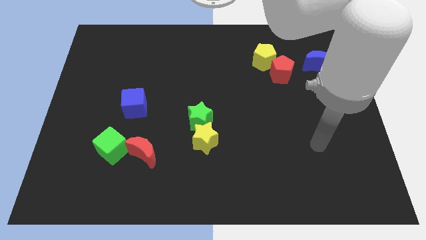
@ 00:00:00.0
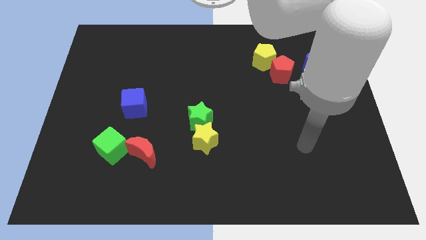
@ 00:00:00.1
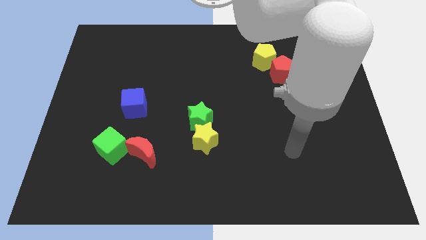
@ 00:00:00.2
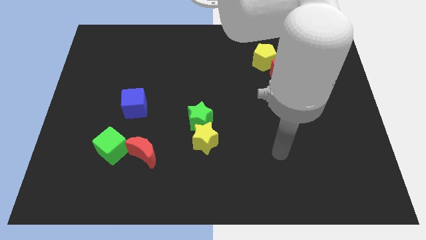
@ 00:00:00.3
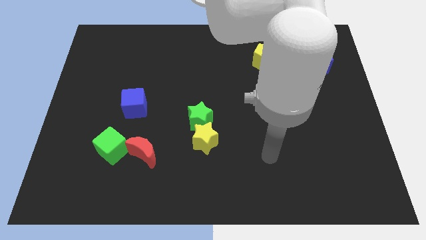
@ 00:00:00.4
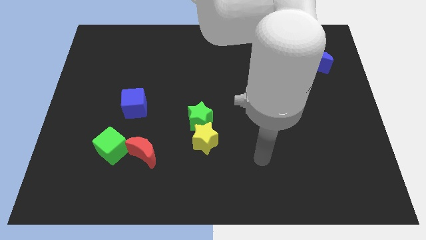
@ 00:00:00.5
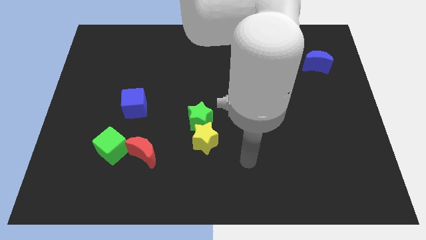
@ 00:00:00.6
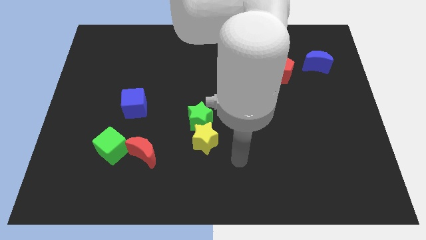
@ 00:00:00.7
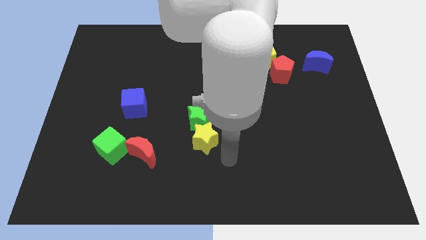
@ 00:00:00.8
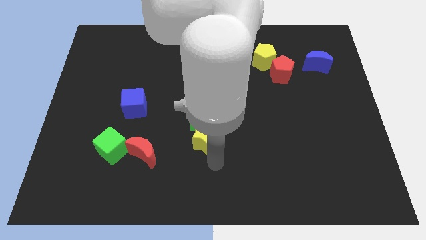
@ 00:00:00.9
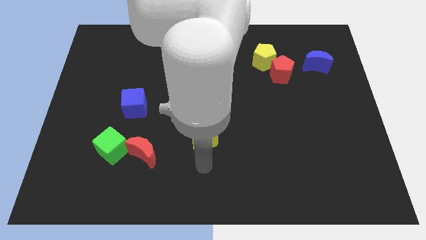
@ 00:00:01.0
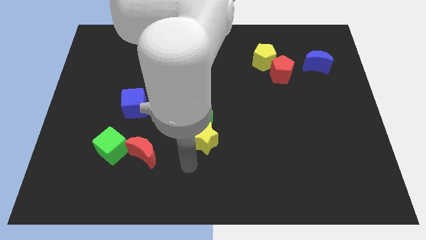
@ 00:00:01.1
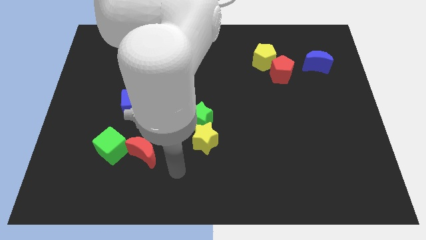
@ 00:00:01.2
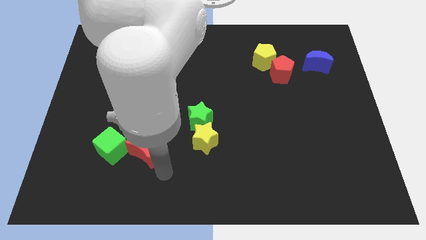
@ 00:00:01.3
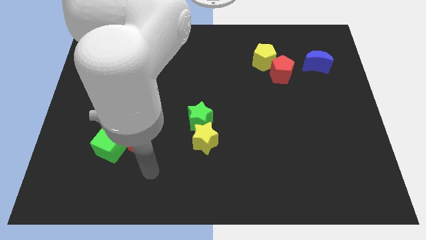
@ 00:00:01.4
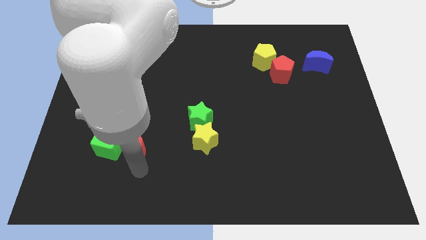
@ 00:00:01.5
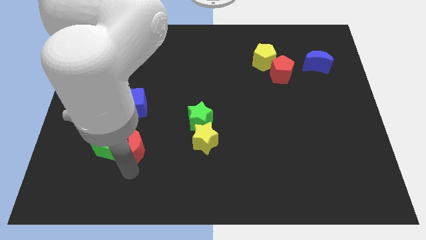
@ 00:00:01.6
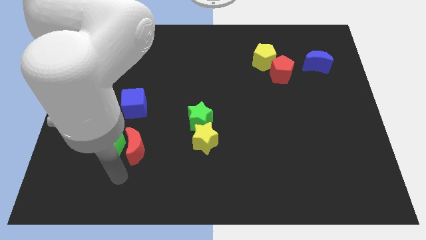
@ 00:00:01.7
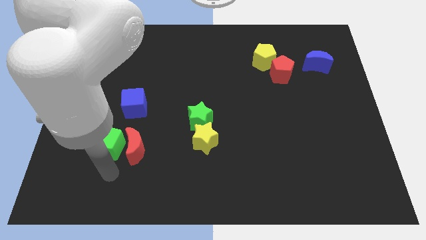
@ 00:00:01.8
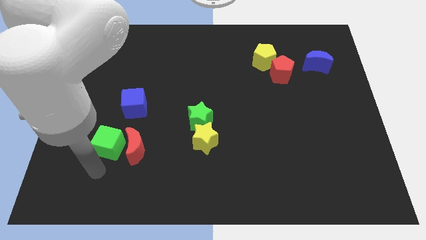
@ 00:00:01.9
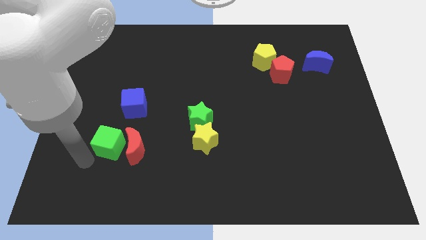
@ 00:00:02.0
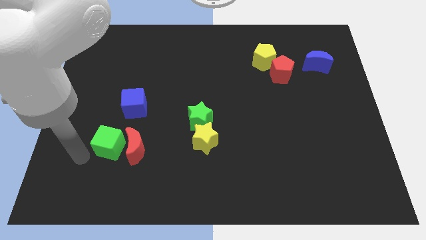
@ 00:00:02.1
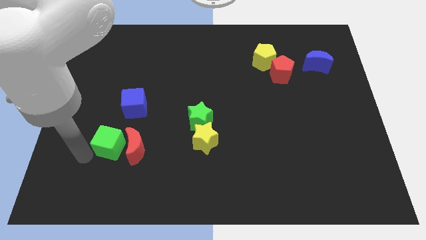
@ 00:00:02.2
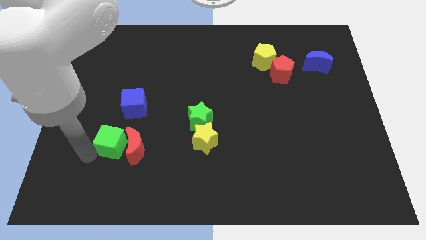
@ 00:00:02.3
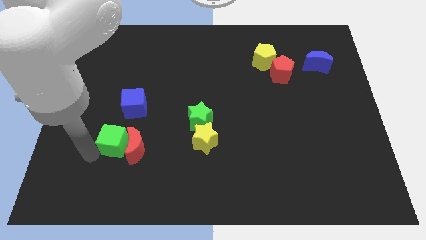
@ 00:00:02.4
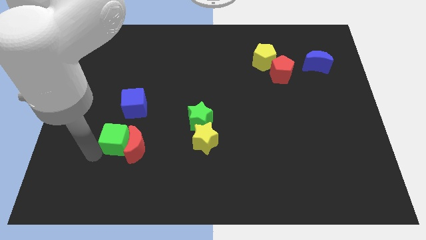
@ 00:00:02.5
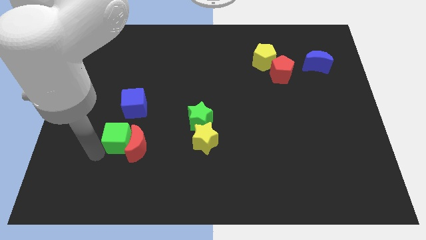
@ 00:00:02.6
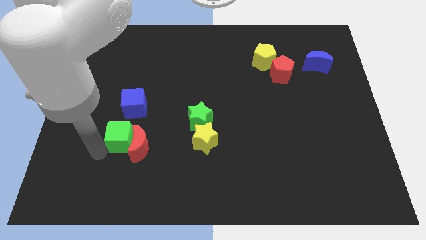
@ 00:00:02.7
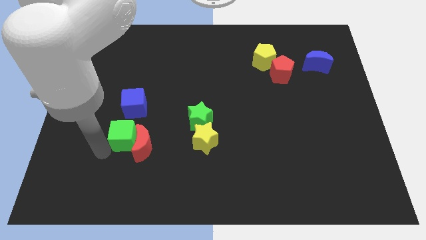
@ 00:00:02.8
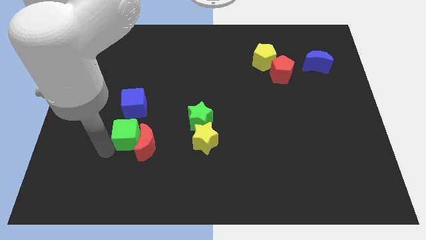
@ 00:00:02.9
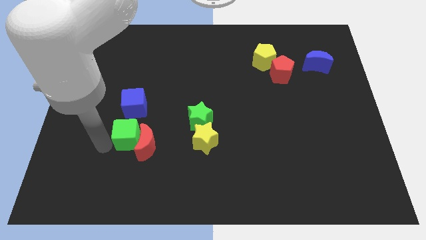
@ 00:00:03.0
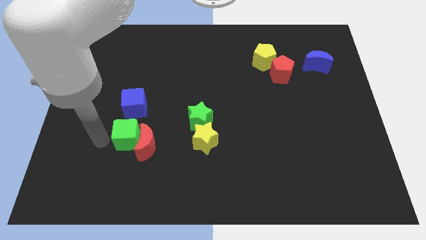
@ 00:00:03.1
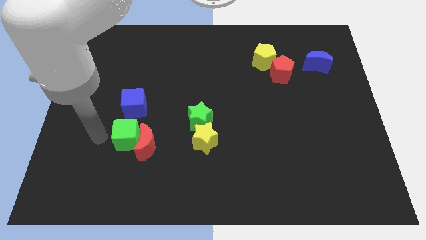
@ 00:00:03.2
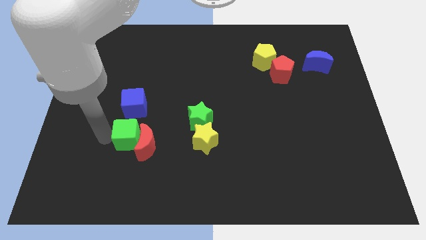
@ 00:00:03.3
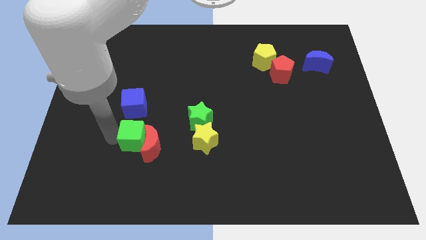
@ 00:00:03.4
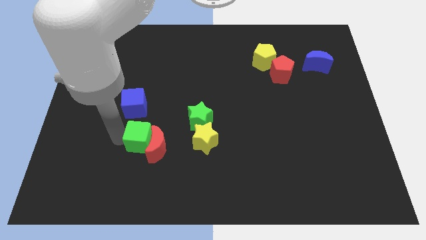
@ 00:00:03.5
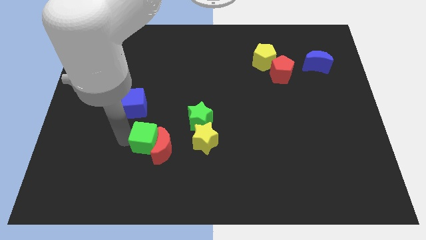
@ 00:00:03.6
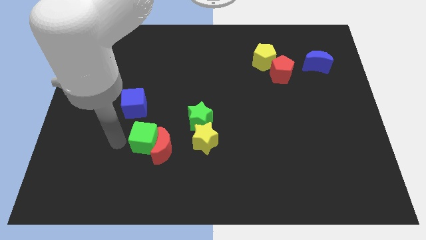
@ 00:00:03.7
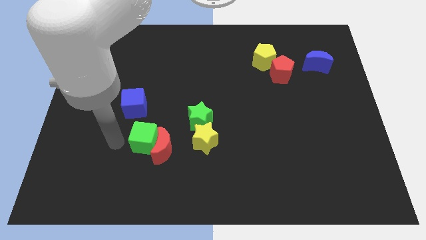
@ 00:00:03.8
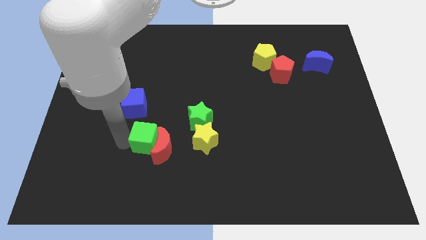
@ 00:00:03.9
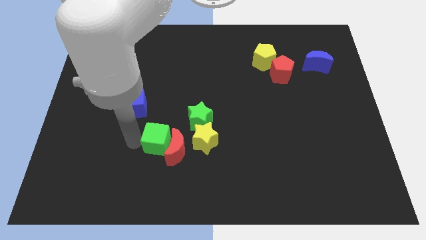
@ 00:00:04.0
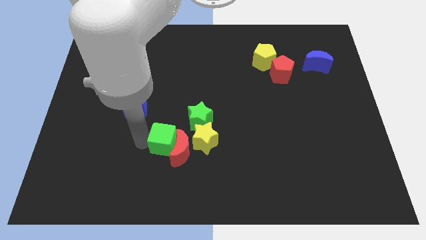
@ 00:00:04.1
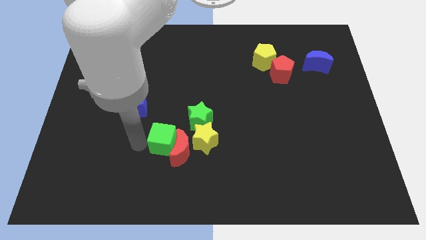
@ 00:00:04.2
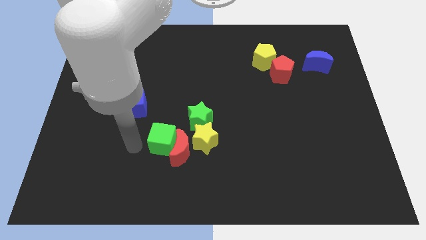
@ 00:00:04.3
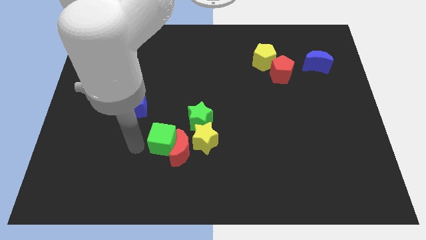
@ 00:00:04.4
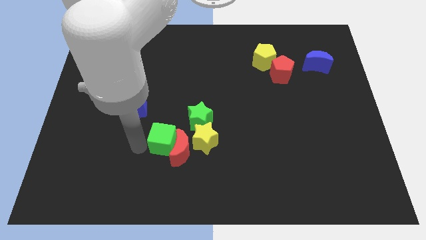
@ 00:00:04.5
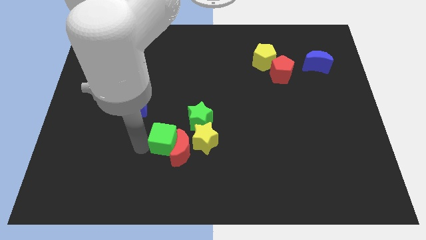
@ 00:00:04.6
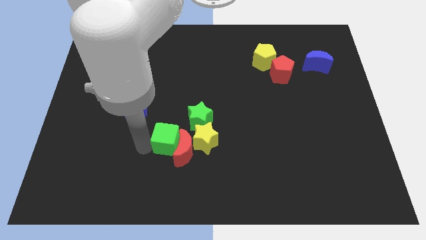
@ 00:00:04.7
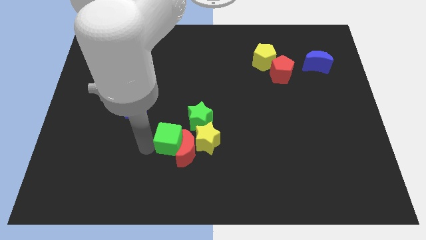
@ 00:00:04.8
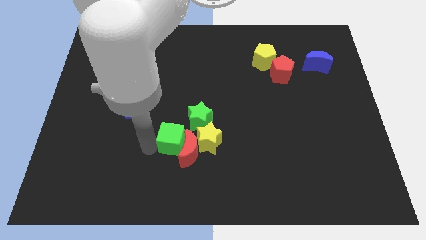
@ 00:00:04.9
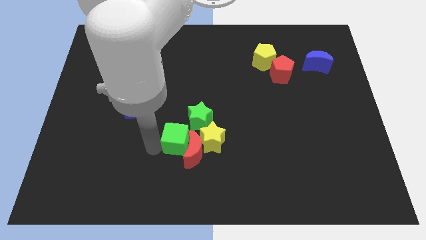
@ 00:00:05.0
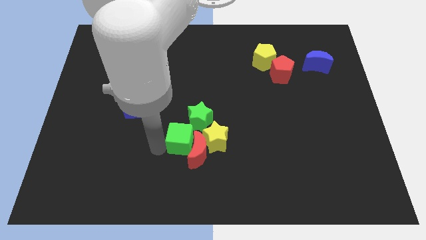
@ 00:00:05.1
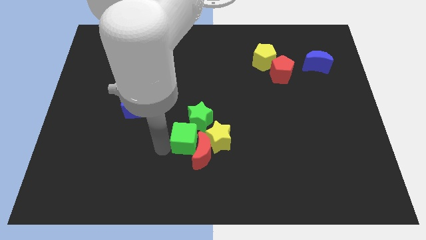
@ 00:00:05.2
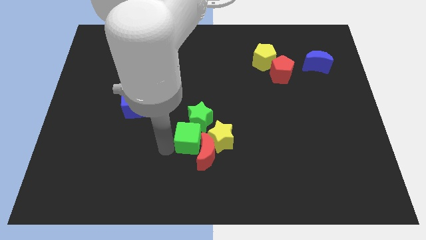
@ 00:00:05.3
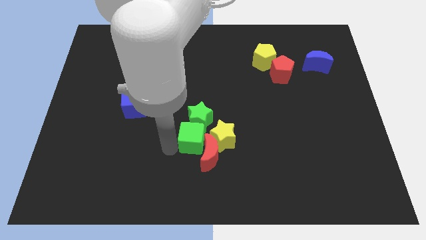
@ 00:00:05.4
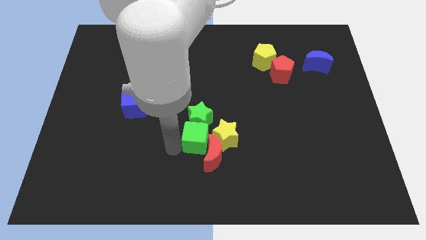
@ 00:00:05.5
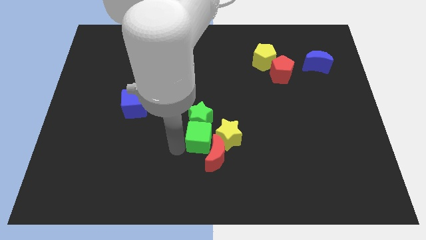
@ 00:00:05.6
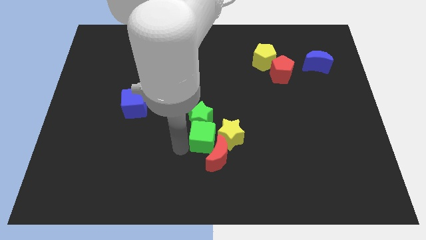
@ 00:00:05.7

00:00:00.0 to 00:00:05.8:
push the green cube next to the yellow star

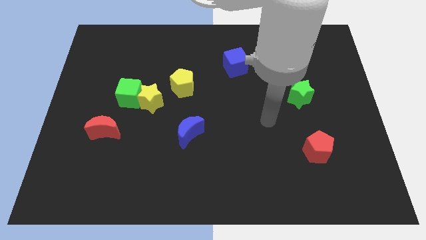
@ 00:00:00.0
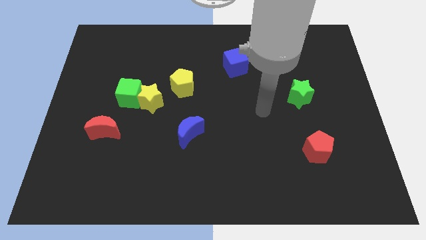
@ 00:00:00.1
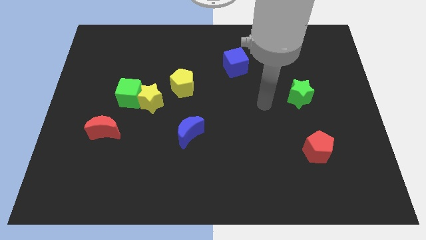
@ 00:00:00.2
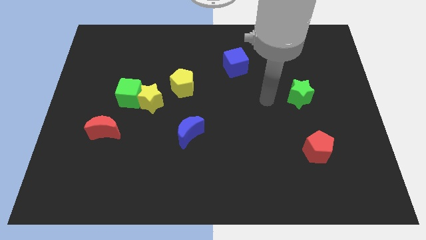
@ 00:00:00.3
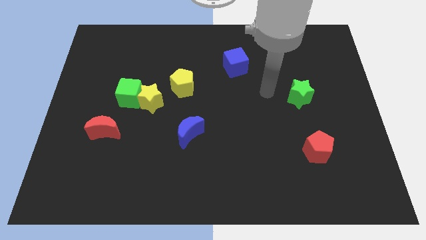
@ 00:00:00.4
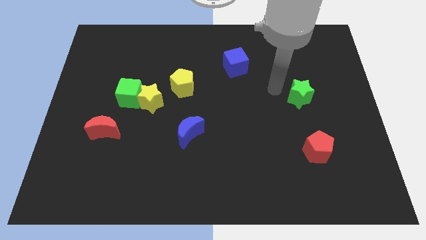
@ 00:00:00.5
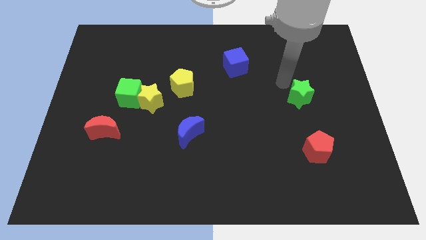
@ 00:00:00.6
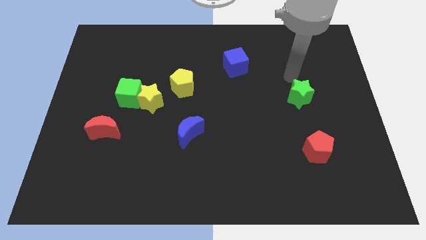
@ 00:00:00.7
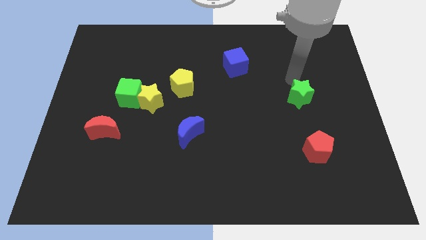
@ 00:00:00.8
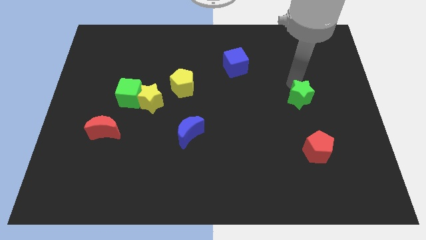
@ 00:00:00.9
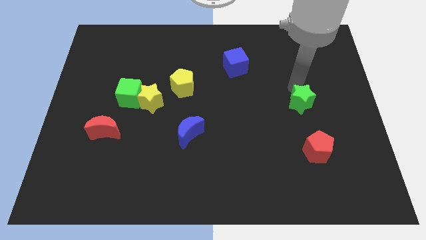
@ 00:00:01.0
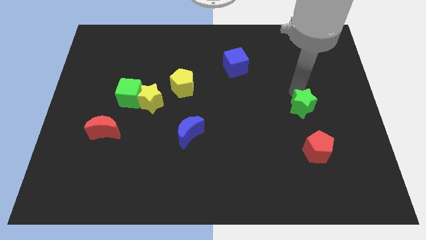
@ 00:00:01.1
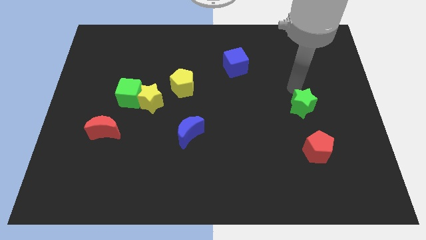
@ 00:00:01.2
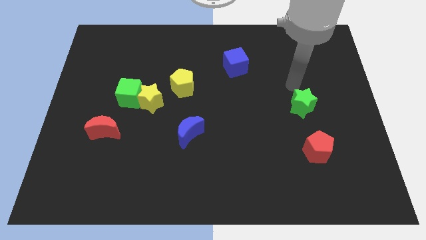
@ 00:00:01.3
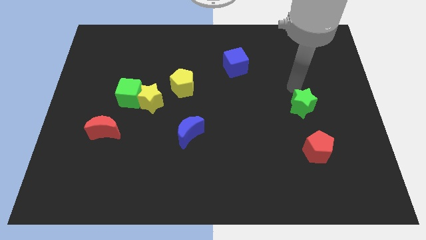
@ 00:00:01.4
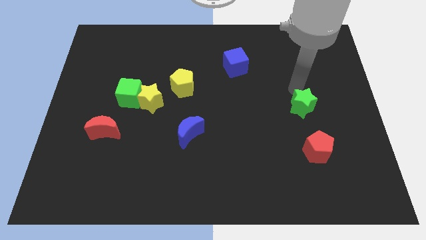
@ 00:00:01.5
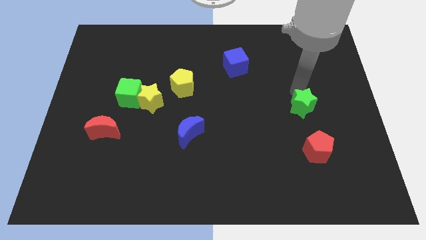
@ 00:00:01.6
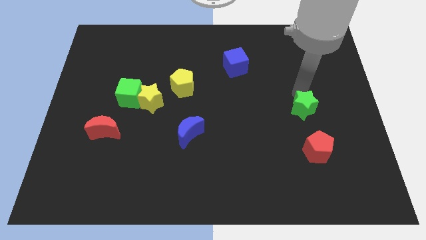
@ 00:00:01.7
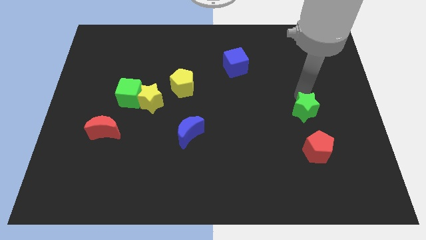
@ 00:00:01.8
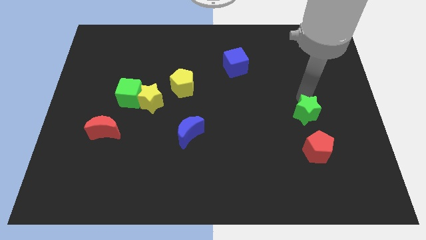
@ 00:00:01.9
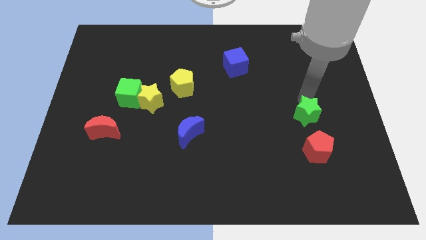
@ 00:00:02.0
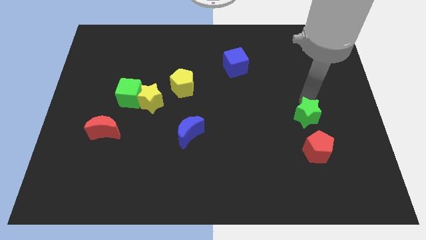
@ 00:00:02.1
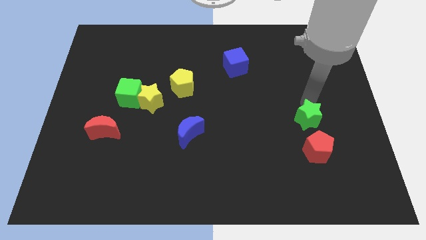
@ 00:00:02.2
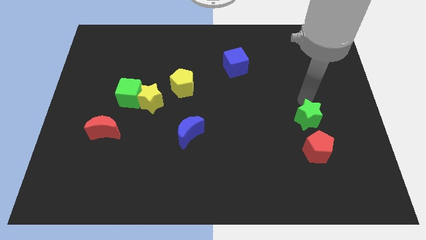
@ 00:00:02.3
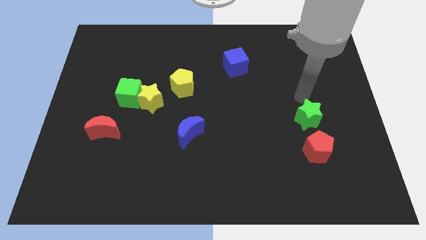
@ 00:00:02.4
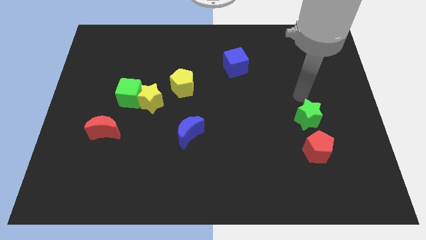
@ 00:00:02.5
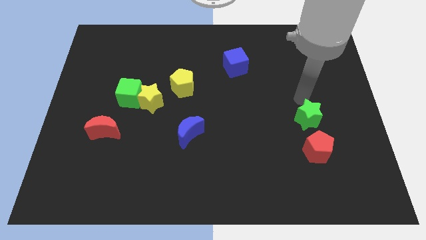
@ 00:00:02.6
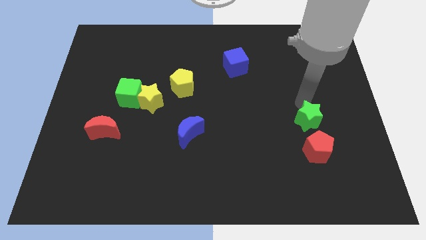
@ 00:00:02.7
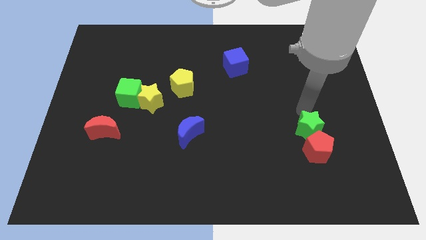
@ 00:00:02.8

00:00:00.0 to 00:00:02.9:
move the green star towards the red pentagon
